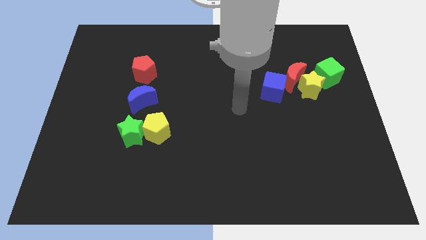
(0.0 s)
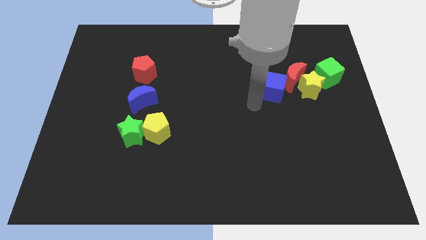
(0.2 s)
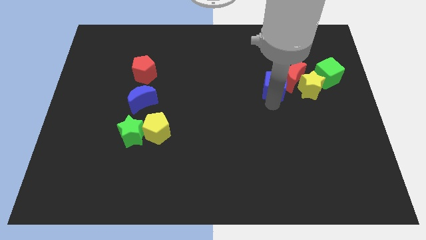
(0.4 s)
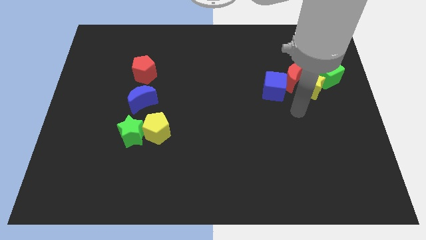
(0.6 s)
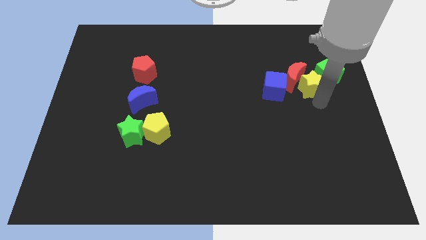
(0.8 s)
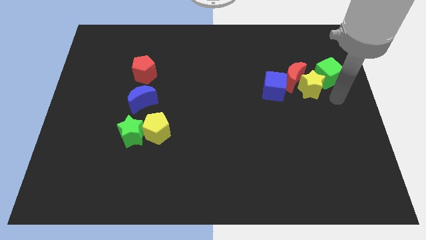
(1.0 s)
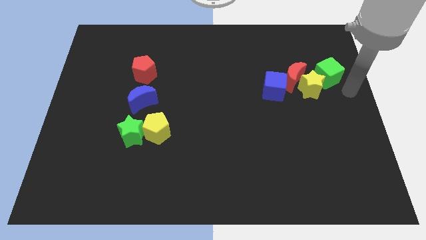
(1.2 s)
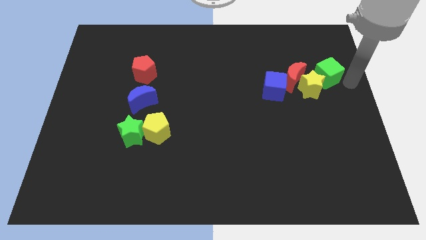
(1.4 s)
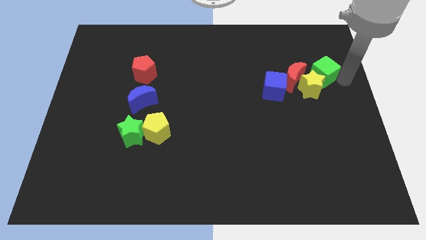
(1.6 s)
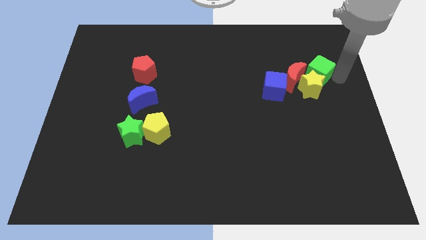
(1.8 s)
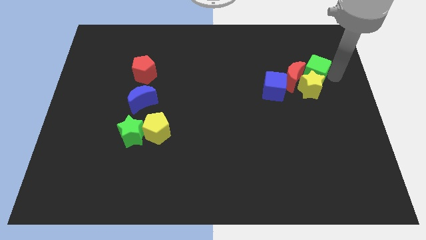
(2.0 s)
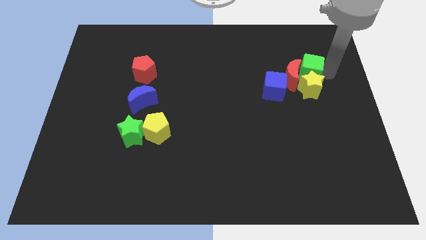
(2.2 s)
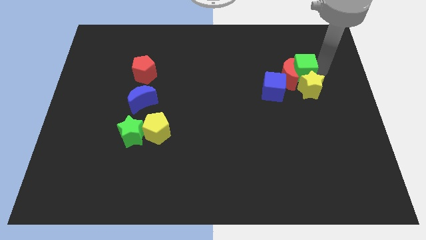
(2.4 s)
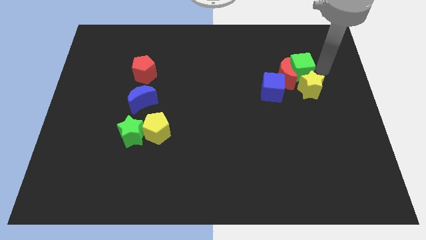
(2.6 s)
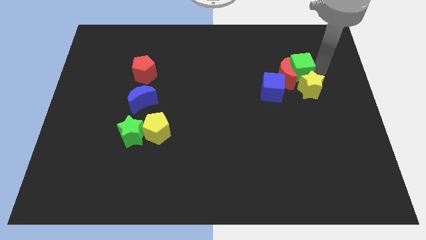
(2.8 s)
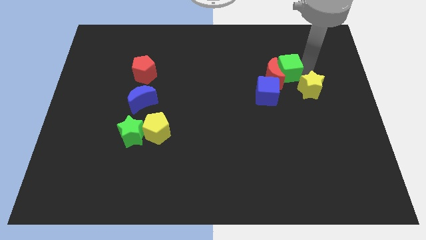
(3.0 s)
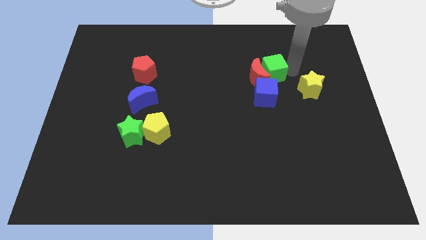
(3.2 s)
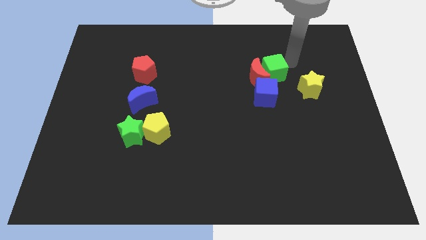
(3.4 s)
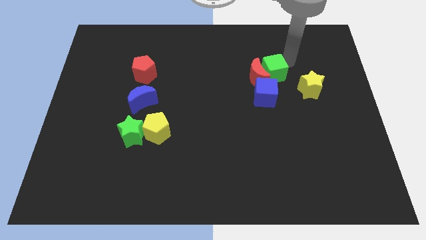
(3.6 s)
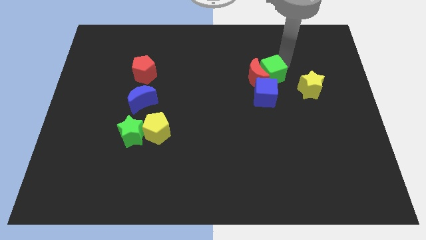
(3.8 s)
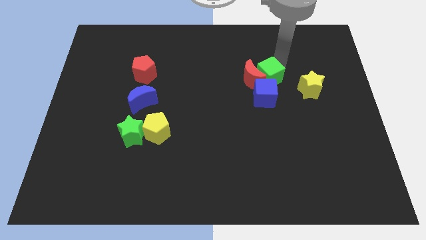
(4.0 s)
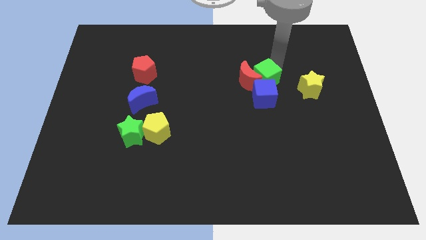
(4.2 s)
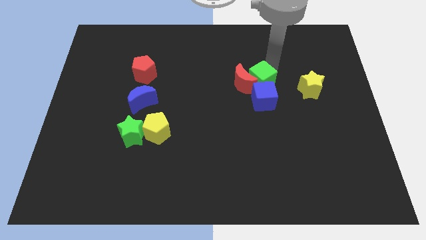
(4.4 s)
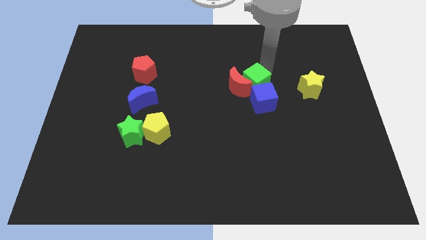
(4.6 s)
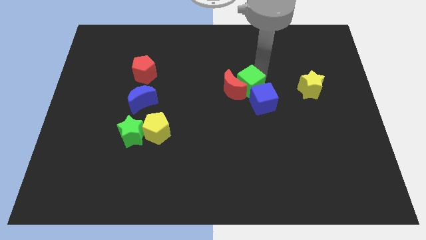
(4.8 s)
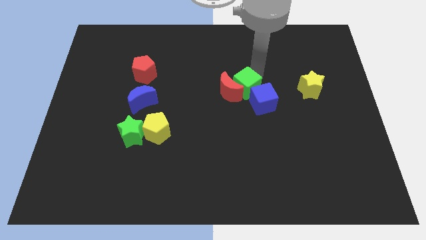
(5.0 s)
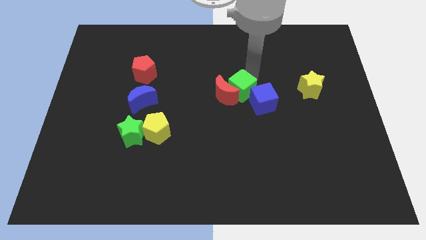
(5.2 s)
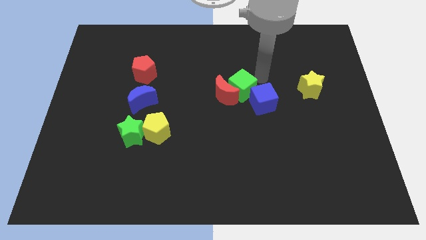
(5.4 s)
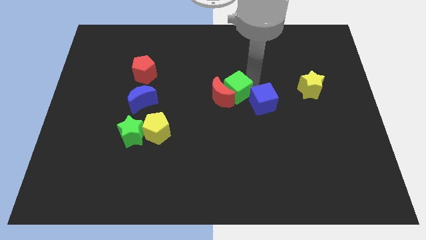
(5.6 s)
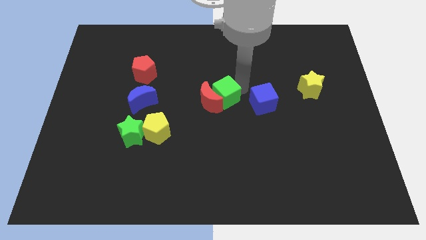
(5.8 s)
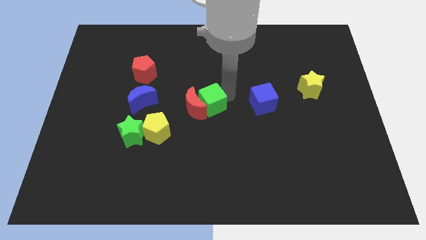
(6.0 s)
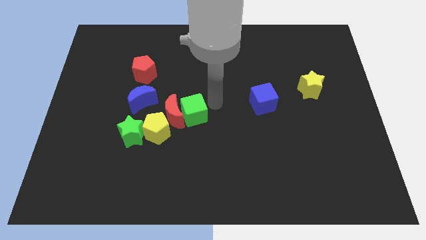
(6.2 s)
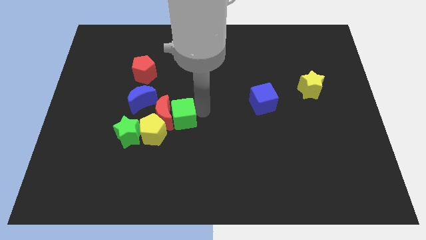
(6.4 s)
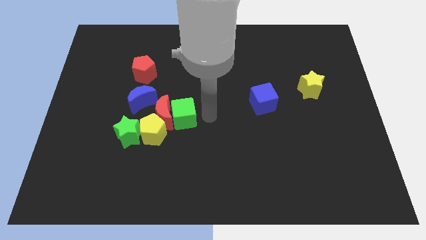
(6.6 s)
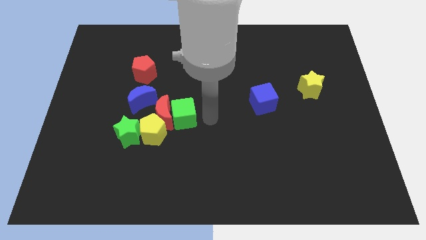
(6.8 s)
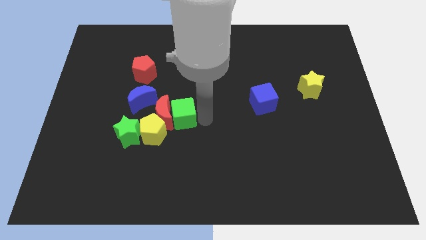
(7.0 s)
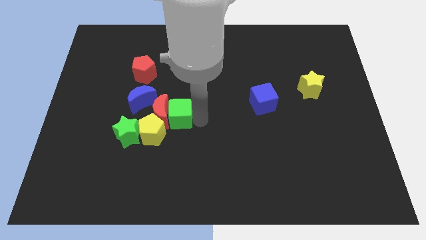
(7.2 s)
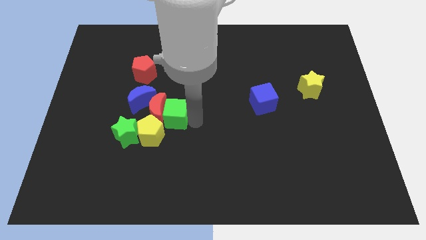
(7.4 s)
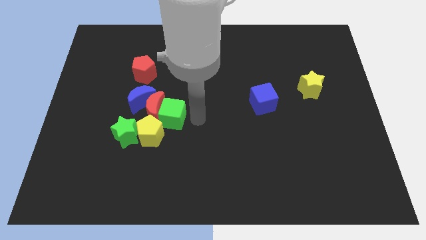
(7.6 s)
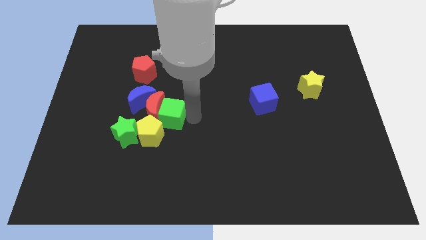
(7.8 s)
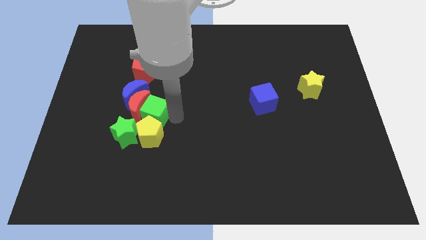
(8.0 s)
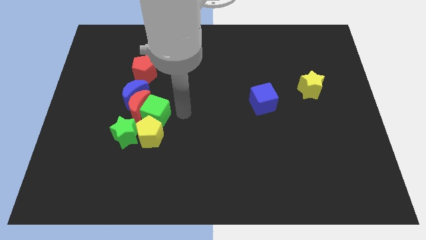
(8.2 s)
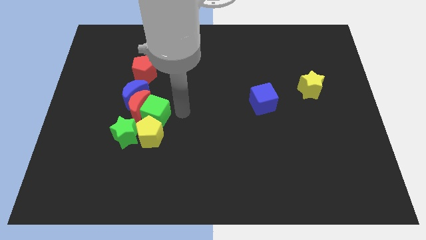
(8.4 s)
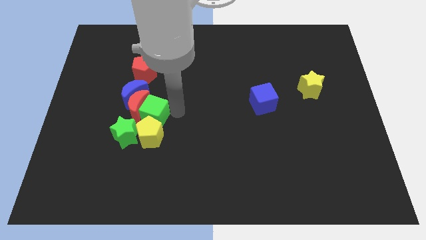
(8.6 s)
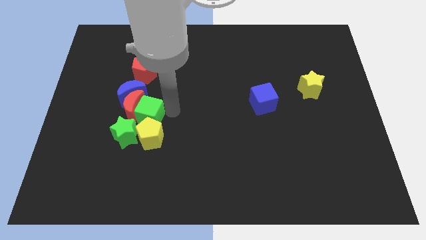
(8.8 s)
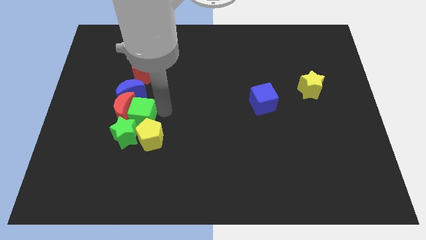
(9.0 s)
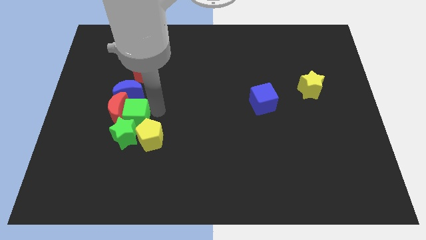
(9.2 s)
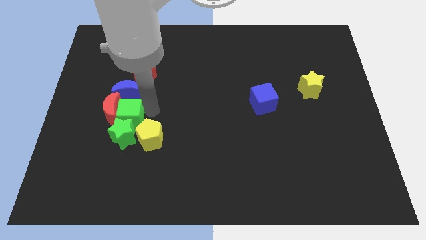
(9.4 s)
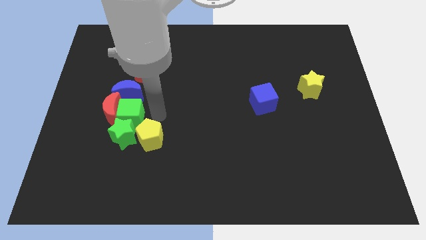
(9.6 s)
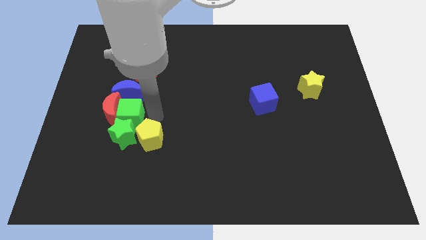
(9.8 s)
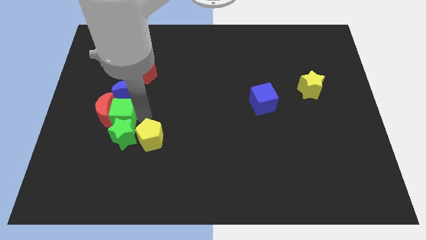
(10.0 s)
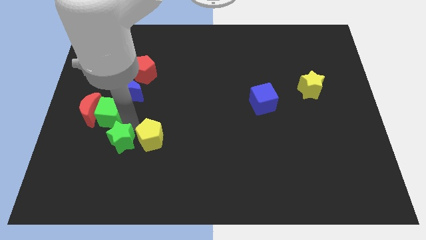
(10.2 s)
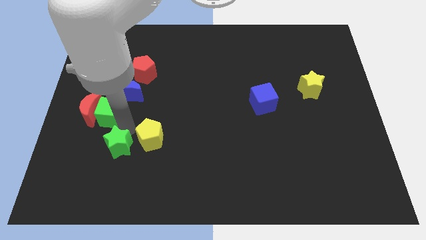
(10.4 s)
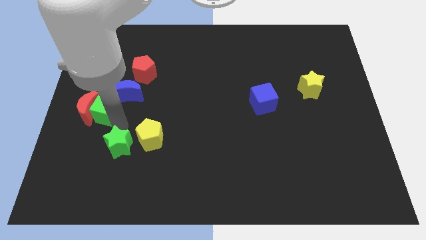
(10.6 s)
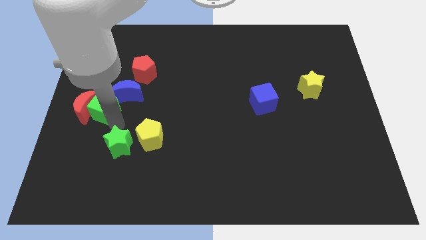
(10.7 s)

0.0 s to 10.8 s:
put the green cube to the left of the blue moon

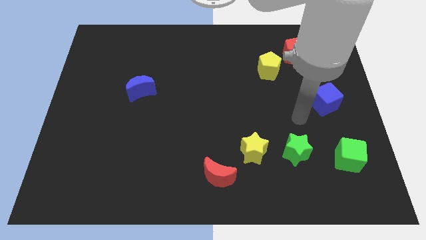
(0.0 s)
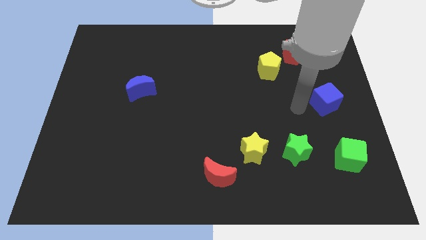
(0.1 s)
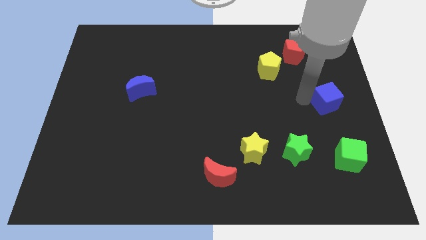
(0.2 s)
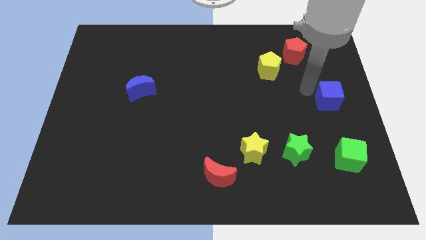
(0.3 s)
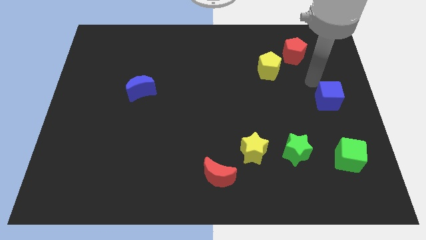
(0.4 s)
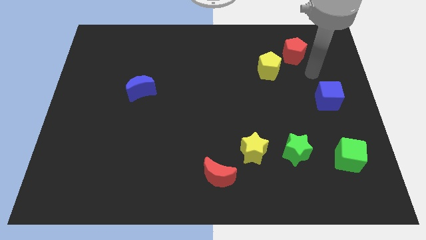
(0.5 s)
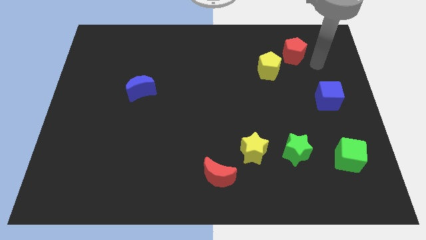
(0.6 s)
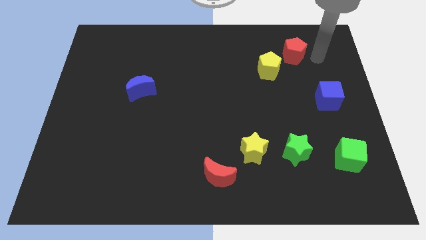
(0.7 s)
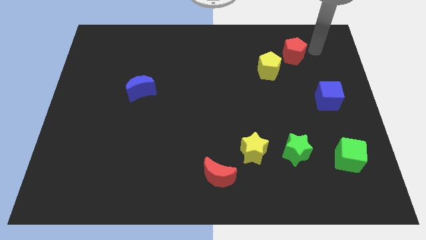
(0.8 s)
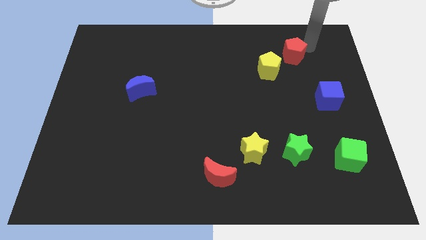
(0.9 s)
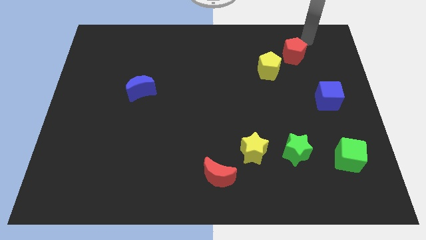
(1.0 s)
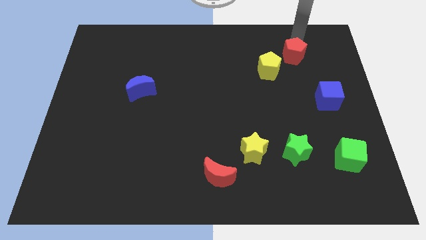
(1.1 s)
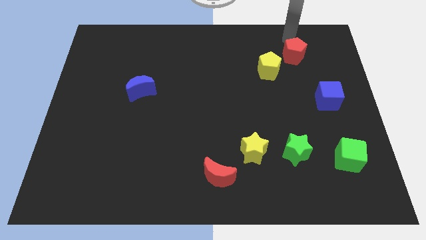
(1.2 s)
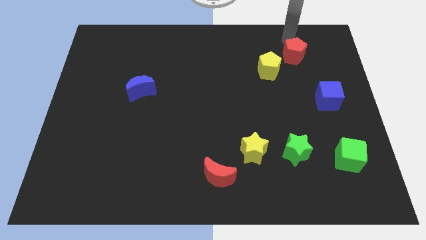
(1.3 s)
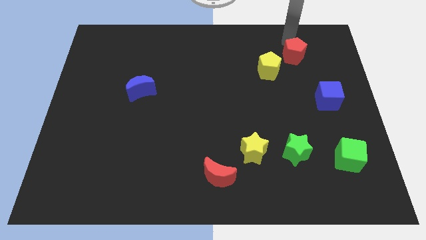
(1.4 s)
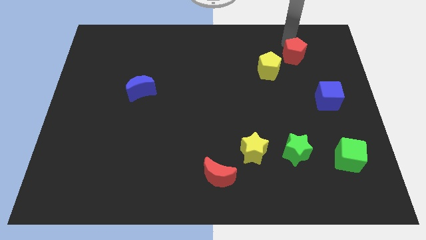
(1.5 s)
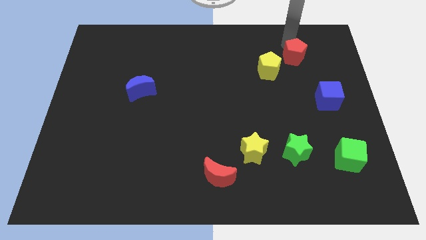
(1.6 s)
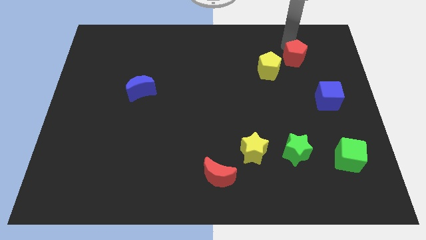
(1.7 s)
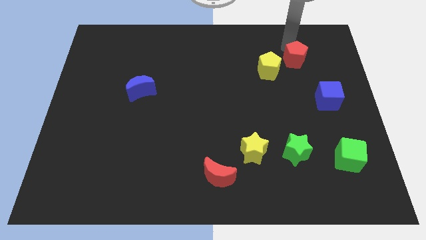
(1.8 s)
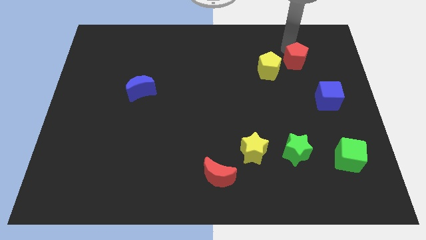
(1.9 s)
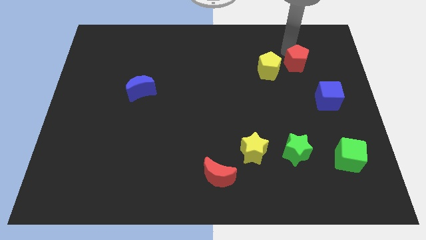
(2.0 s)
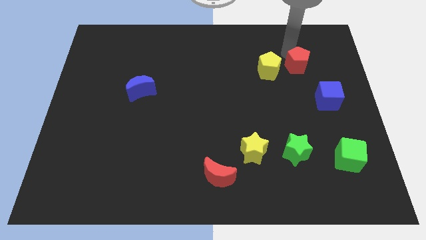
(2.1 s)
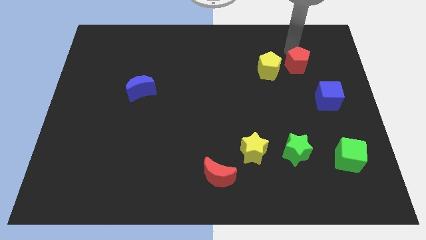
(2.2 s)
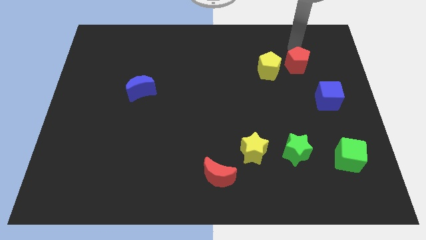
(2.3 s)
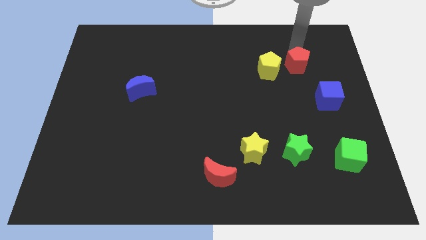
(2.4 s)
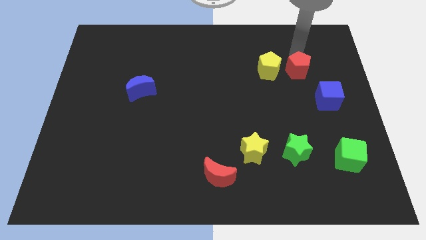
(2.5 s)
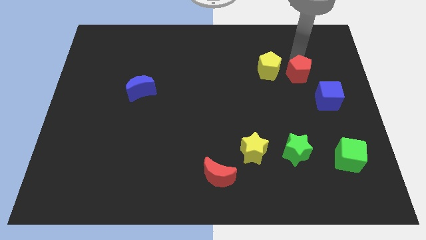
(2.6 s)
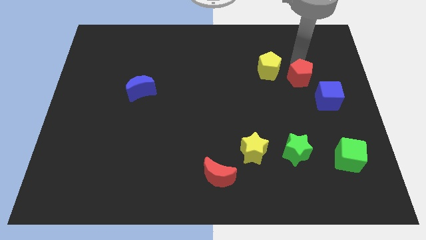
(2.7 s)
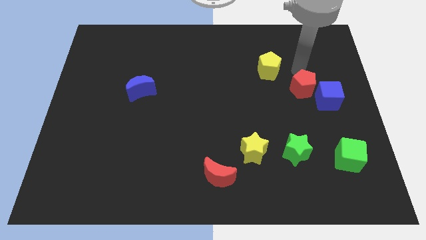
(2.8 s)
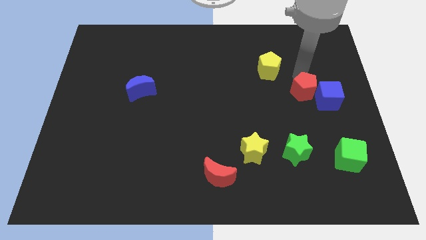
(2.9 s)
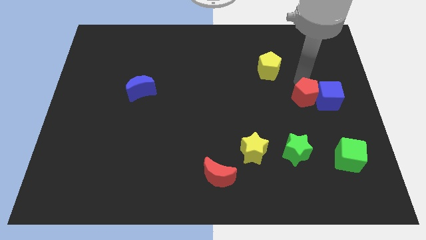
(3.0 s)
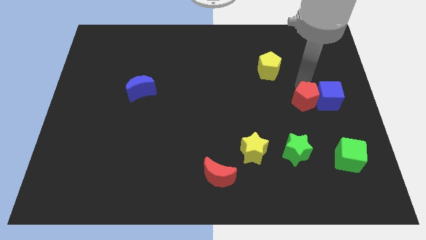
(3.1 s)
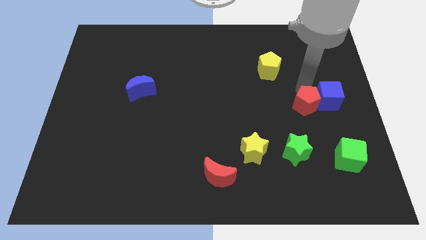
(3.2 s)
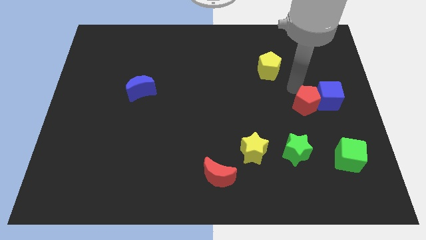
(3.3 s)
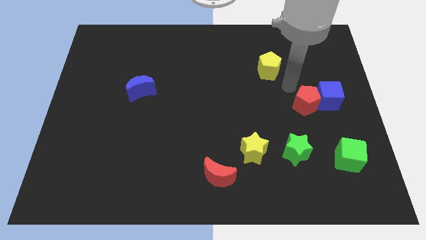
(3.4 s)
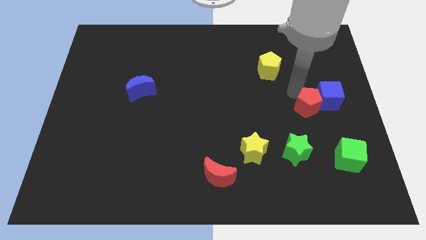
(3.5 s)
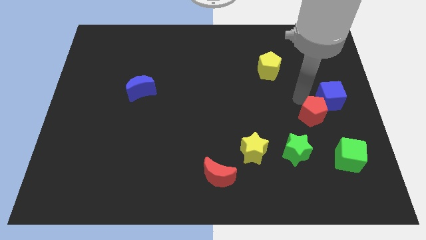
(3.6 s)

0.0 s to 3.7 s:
push the red pentagon below the blue cube
